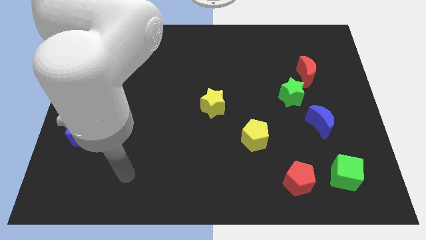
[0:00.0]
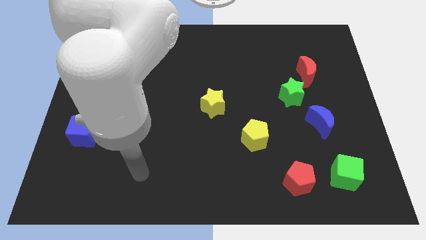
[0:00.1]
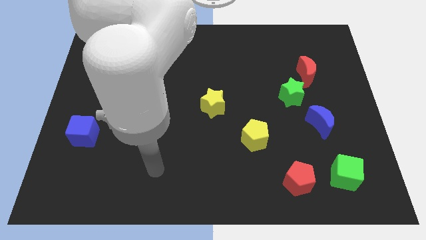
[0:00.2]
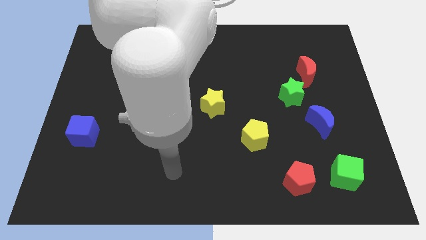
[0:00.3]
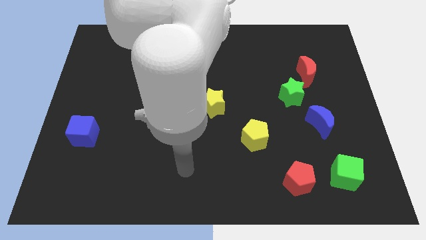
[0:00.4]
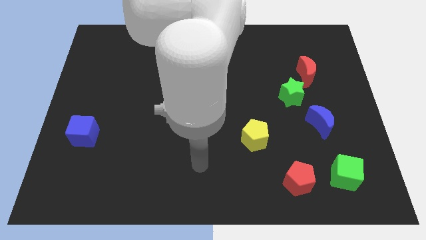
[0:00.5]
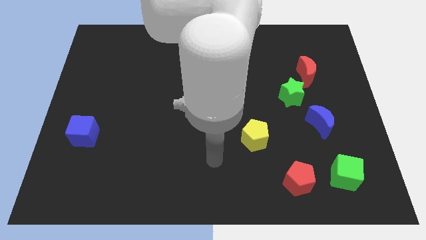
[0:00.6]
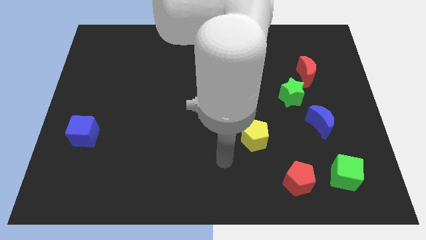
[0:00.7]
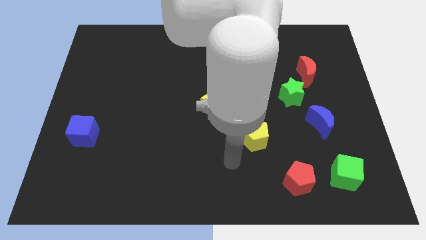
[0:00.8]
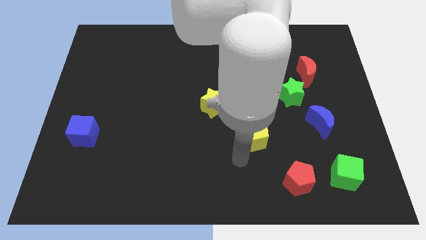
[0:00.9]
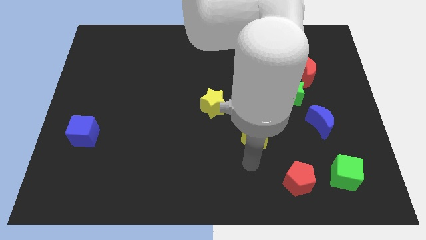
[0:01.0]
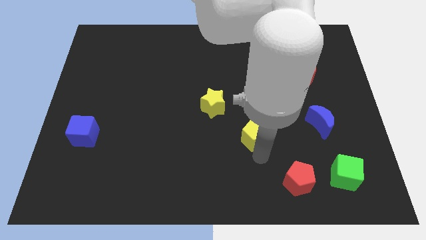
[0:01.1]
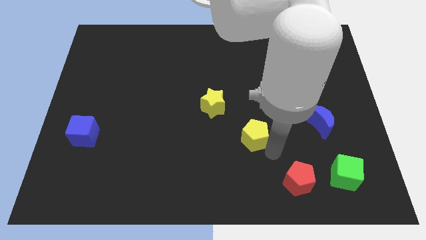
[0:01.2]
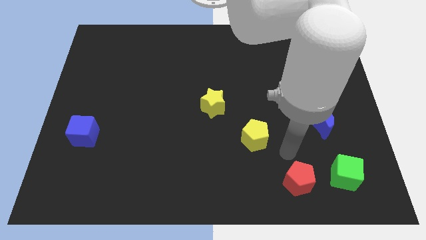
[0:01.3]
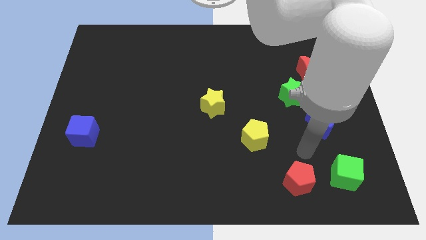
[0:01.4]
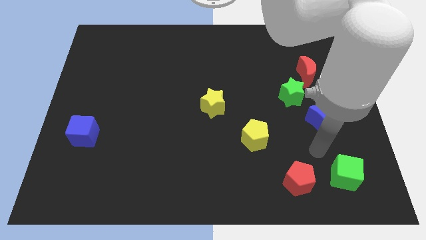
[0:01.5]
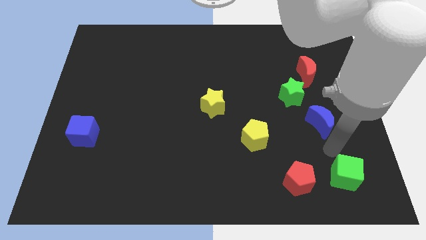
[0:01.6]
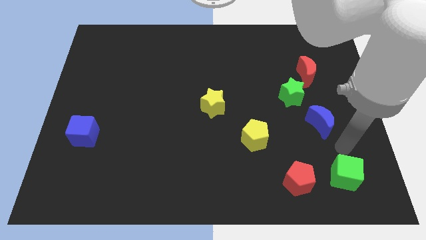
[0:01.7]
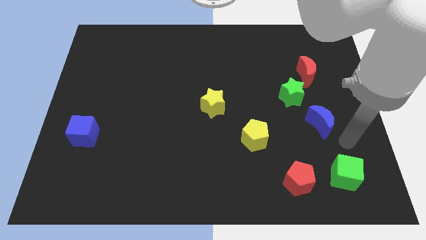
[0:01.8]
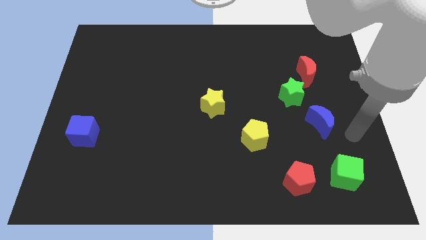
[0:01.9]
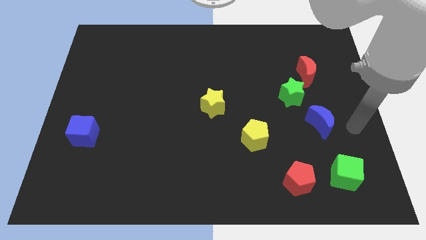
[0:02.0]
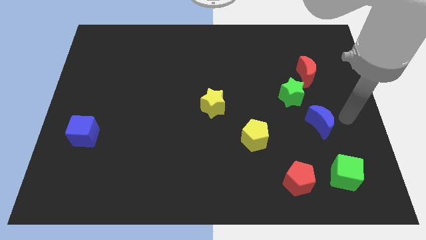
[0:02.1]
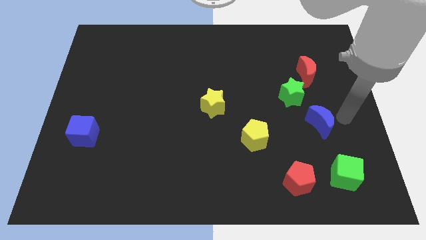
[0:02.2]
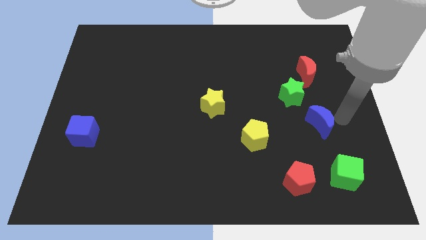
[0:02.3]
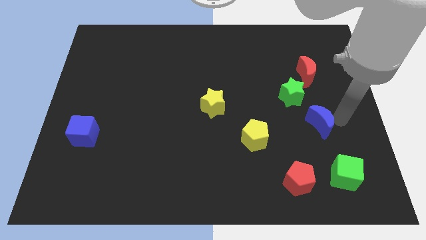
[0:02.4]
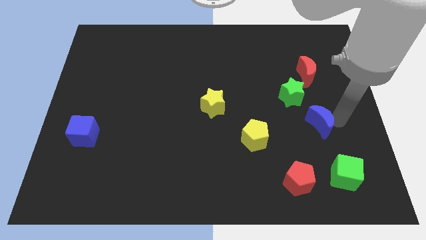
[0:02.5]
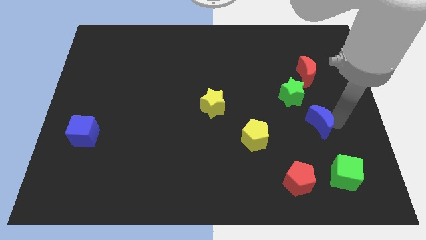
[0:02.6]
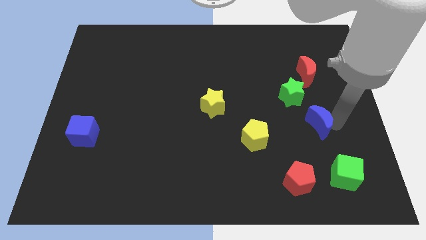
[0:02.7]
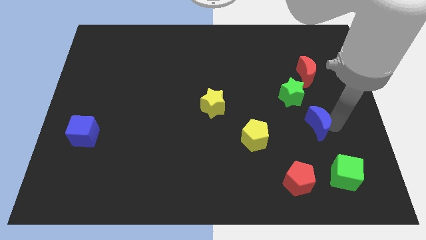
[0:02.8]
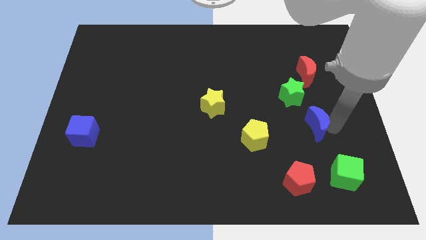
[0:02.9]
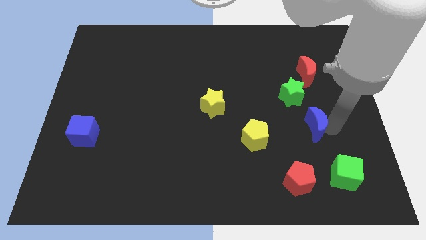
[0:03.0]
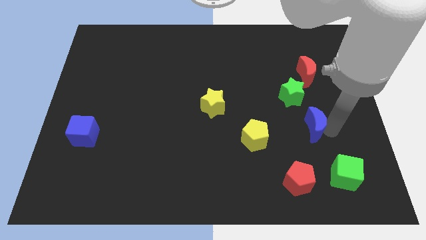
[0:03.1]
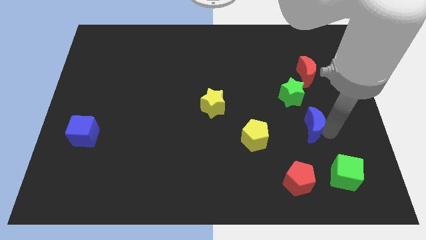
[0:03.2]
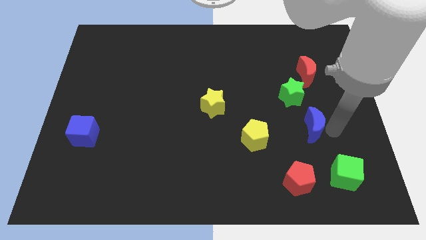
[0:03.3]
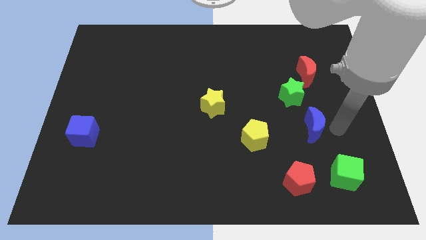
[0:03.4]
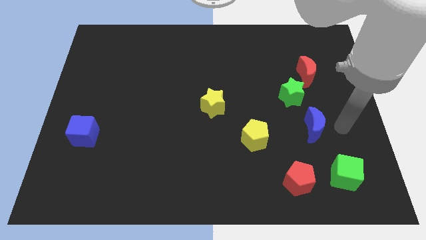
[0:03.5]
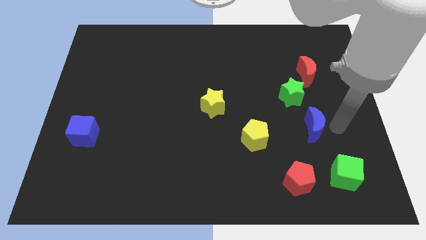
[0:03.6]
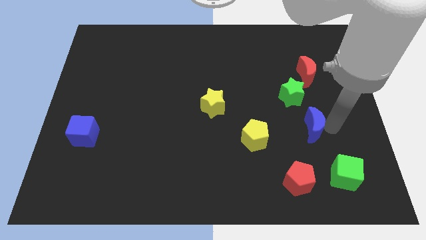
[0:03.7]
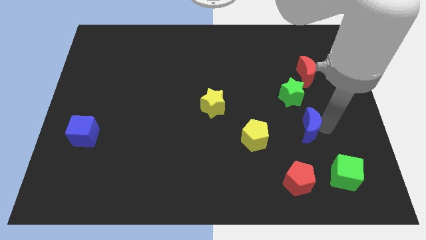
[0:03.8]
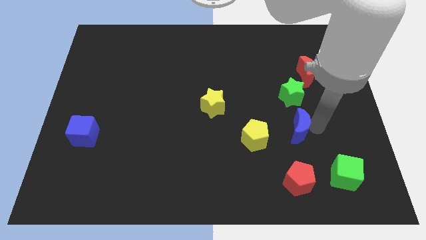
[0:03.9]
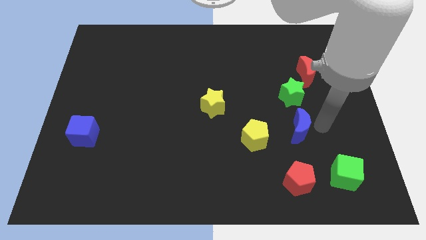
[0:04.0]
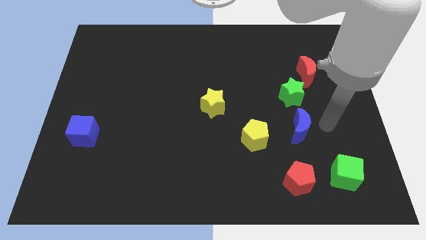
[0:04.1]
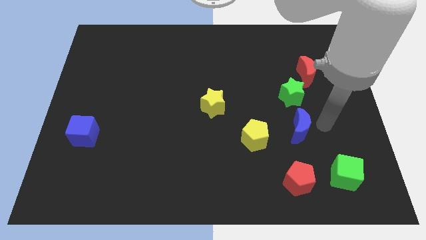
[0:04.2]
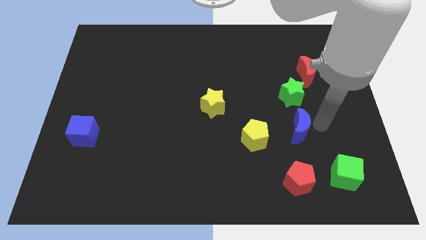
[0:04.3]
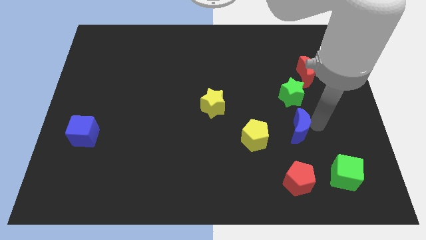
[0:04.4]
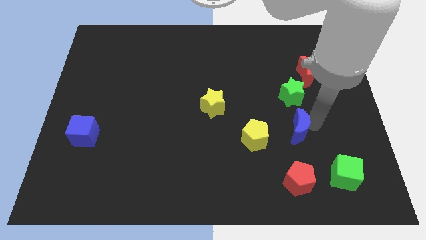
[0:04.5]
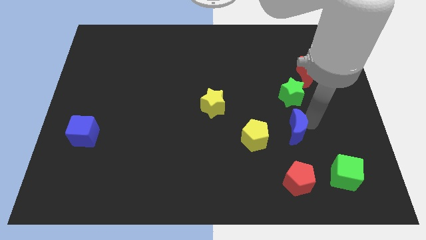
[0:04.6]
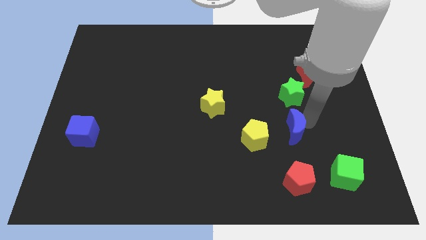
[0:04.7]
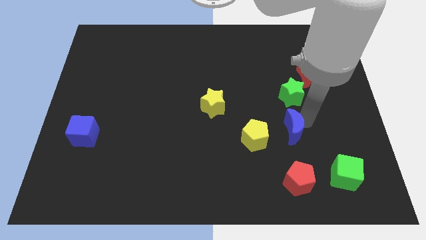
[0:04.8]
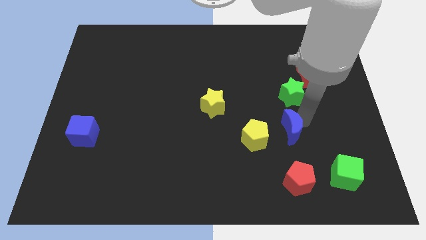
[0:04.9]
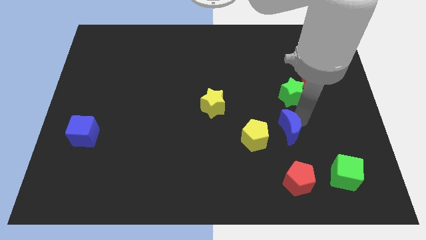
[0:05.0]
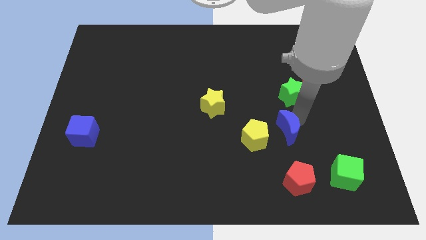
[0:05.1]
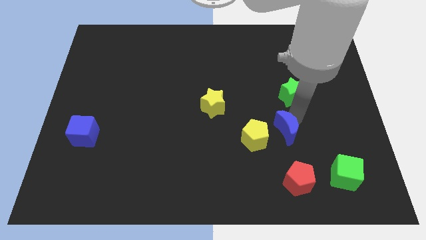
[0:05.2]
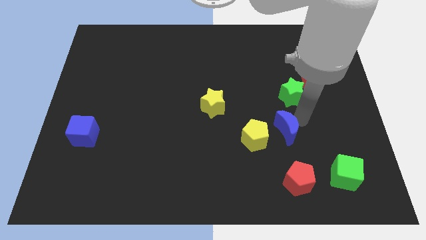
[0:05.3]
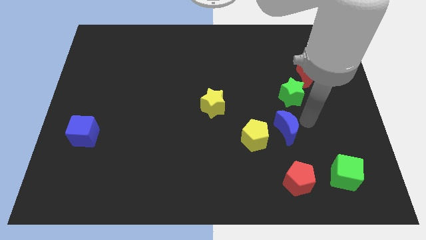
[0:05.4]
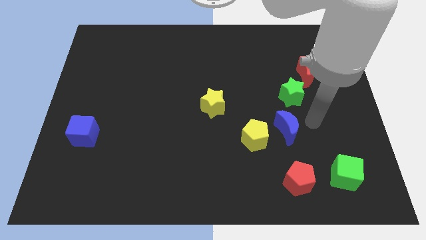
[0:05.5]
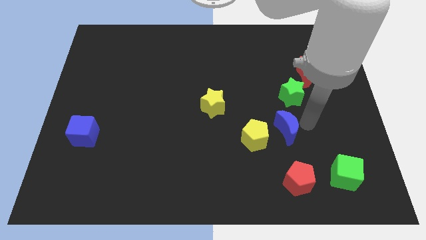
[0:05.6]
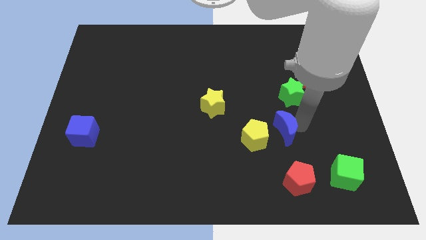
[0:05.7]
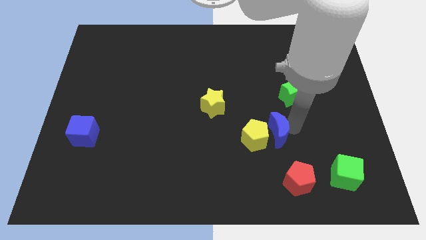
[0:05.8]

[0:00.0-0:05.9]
push the blue moon next to the yellow pentagon
